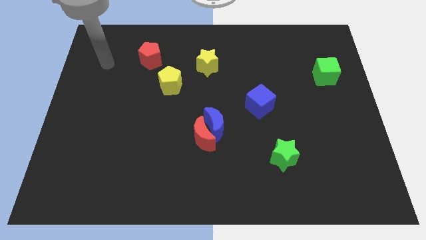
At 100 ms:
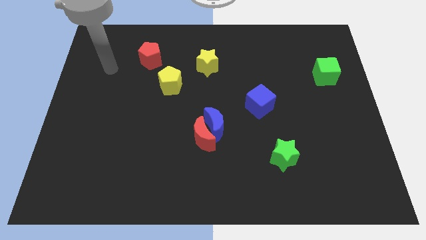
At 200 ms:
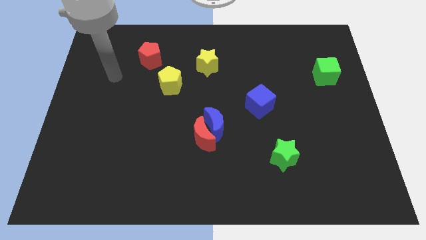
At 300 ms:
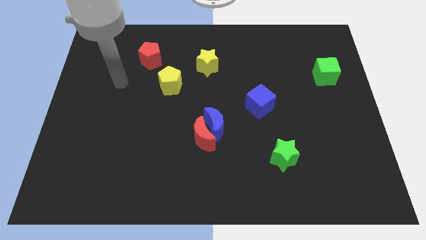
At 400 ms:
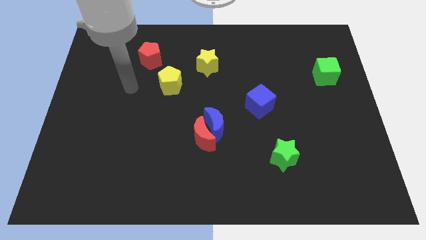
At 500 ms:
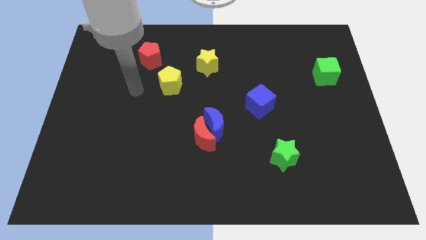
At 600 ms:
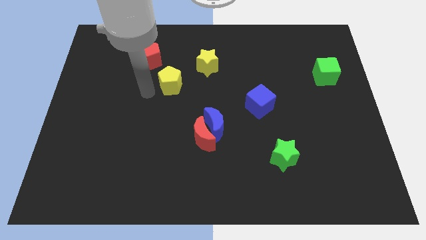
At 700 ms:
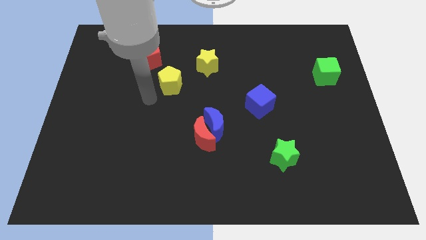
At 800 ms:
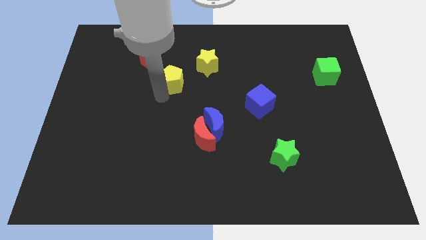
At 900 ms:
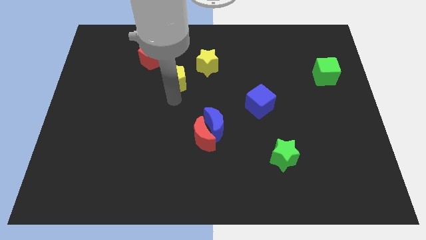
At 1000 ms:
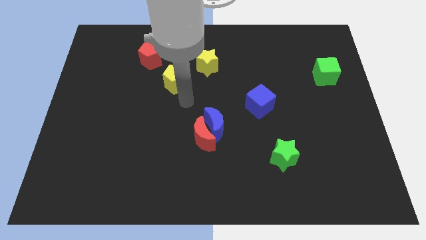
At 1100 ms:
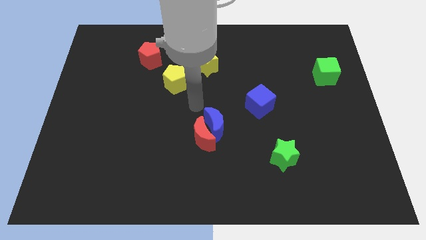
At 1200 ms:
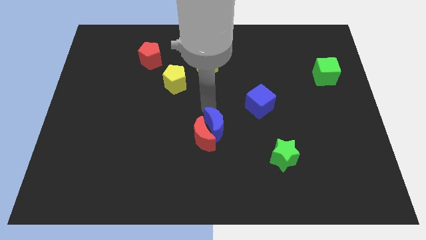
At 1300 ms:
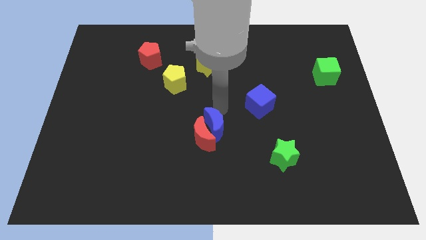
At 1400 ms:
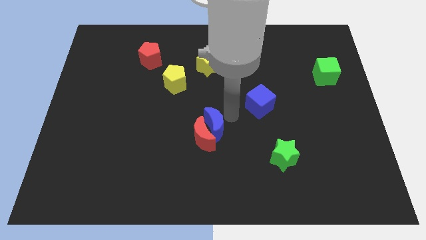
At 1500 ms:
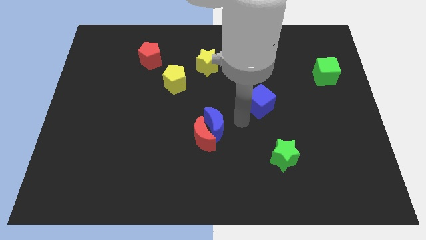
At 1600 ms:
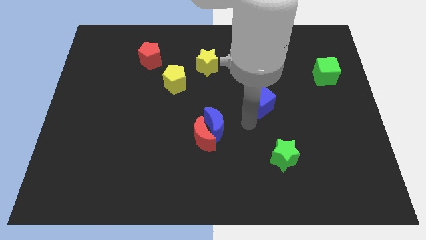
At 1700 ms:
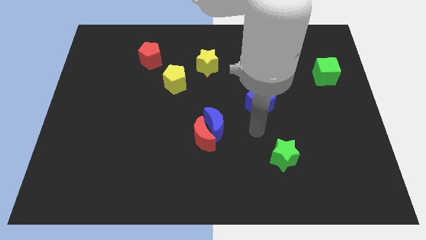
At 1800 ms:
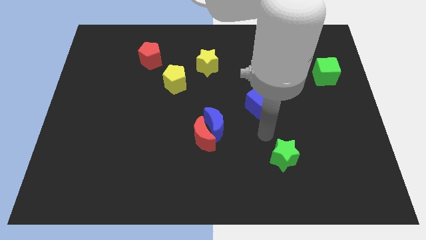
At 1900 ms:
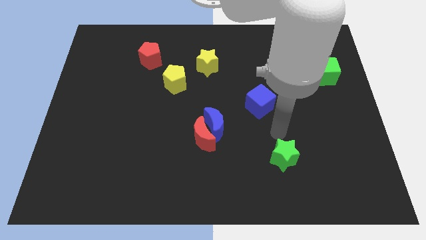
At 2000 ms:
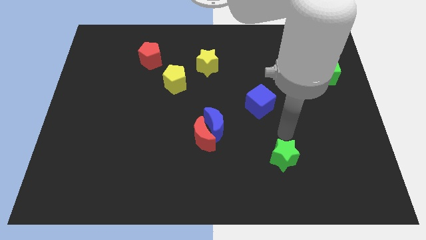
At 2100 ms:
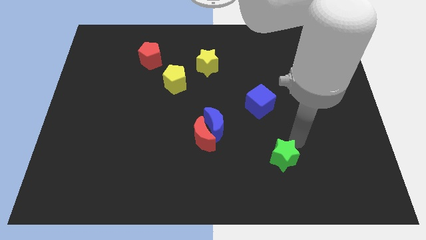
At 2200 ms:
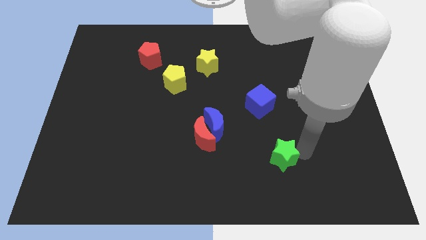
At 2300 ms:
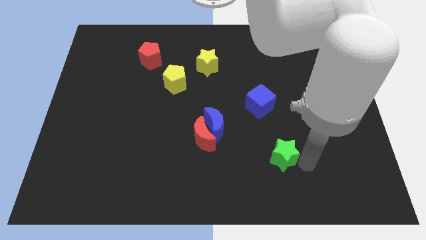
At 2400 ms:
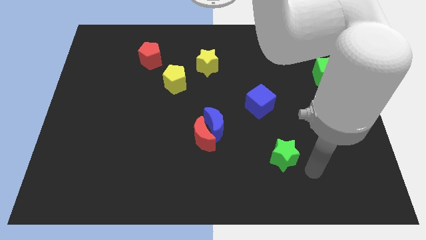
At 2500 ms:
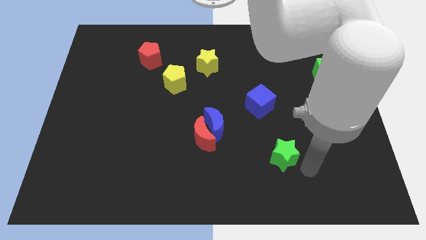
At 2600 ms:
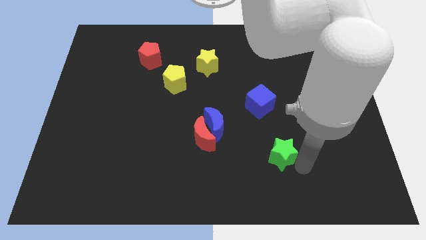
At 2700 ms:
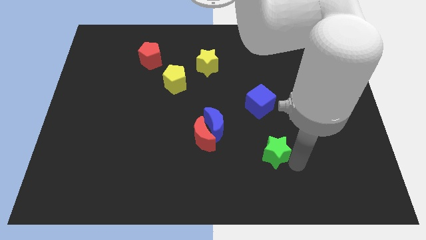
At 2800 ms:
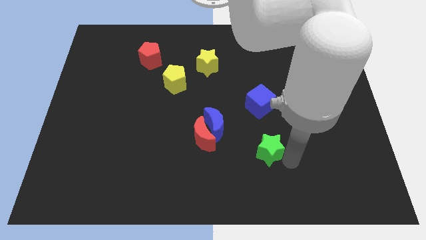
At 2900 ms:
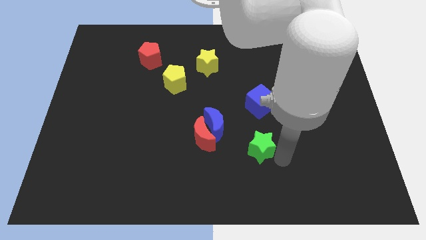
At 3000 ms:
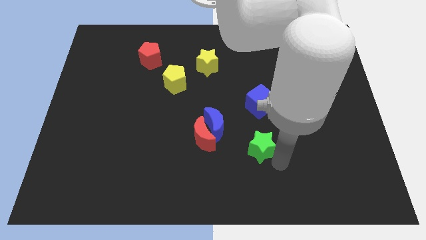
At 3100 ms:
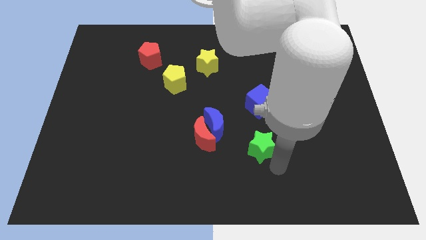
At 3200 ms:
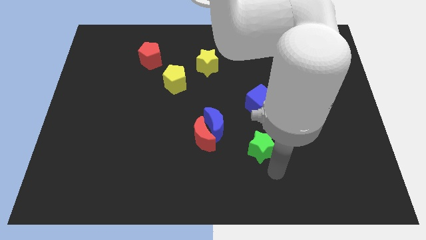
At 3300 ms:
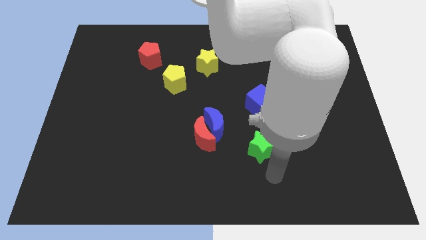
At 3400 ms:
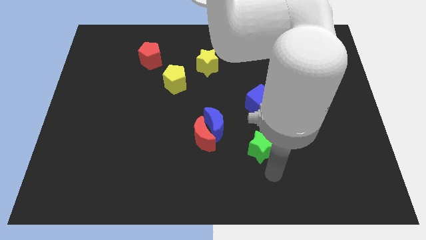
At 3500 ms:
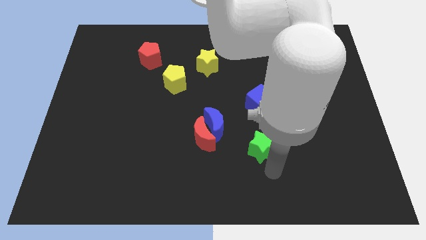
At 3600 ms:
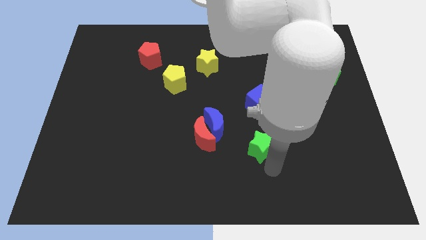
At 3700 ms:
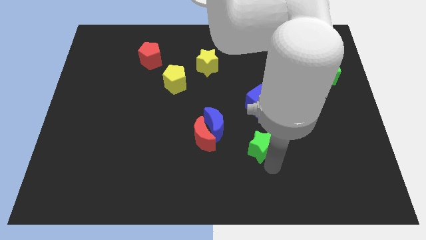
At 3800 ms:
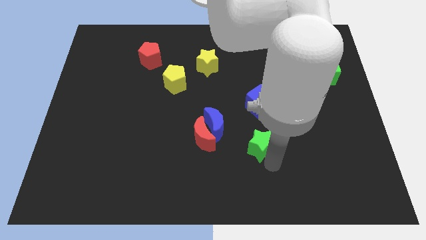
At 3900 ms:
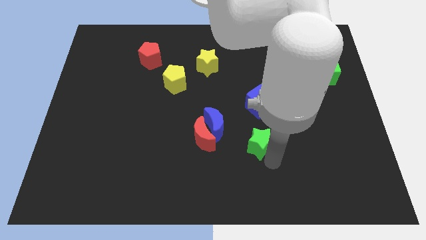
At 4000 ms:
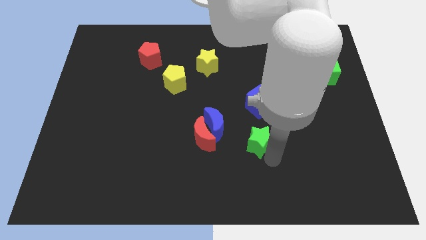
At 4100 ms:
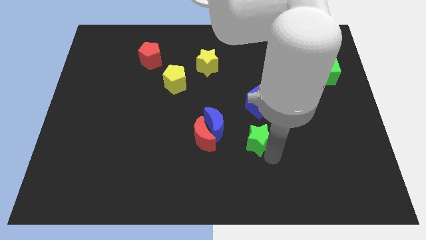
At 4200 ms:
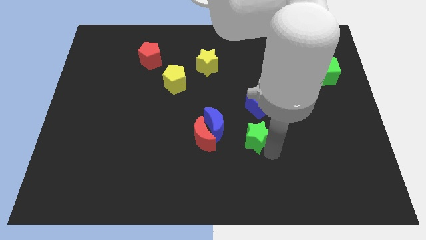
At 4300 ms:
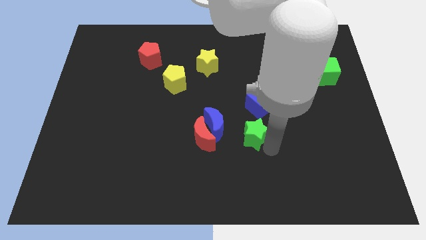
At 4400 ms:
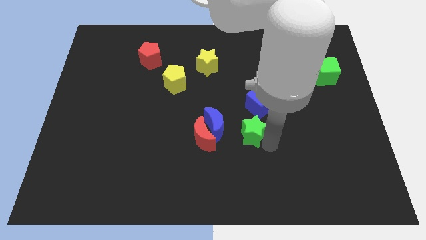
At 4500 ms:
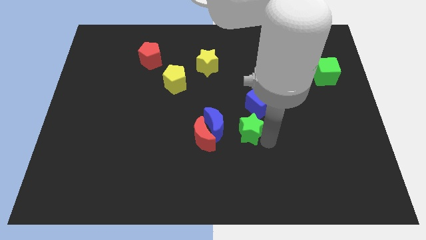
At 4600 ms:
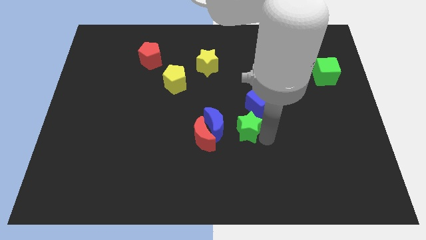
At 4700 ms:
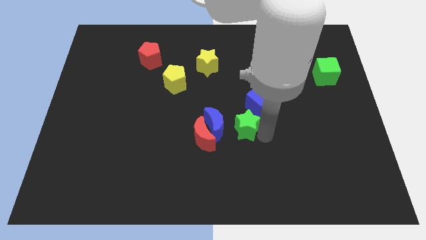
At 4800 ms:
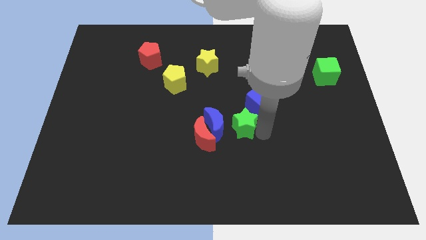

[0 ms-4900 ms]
push the green star diagonally up and to the right of the blue moon

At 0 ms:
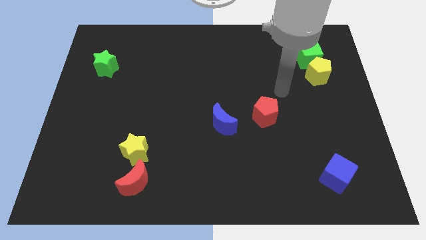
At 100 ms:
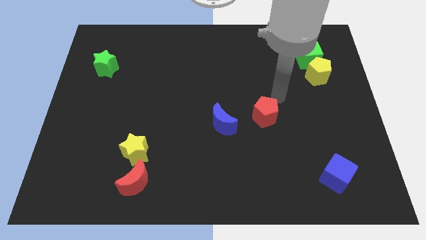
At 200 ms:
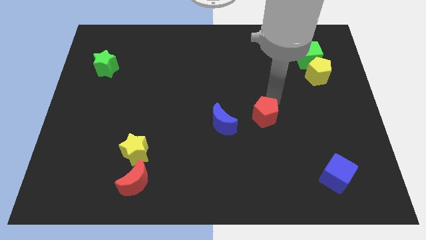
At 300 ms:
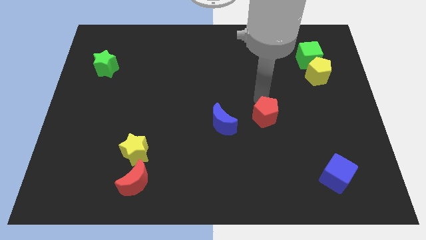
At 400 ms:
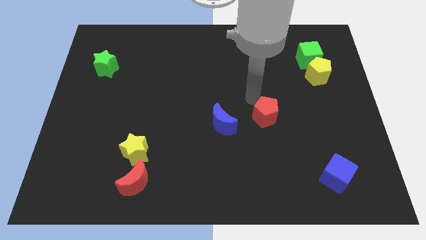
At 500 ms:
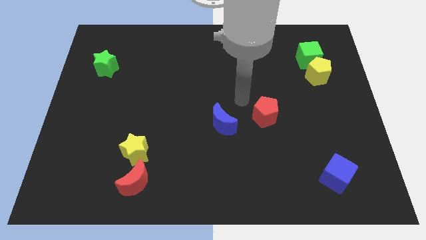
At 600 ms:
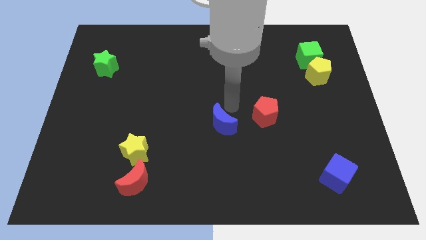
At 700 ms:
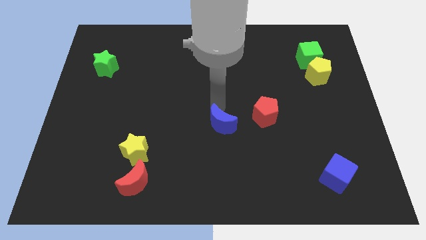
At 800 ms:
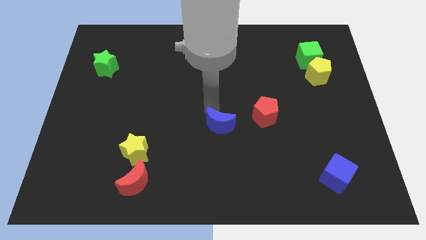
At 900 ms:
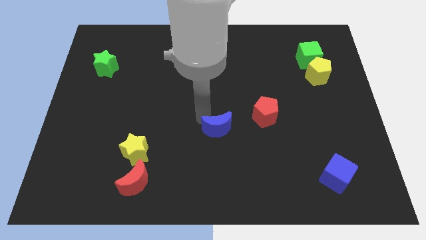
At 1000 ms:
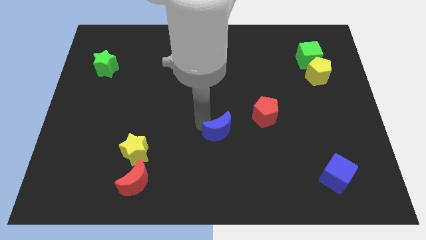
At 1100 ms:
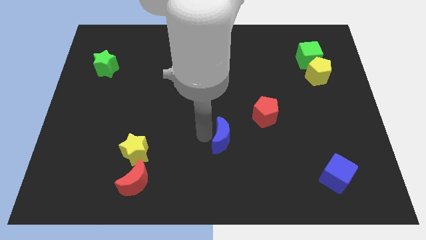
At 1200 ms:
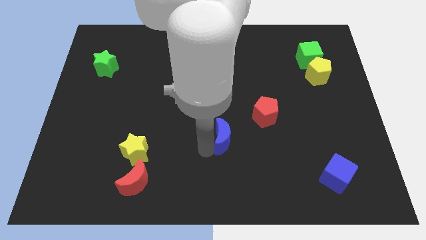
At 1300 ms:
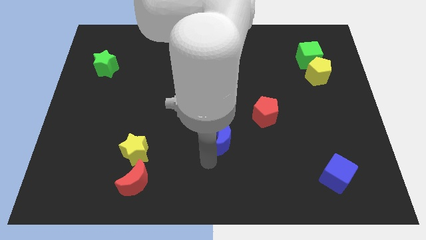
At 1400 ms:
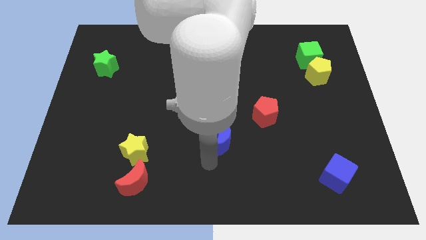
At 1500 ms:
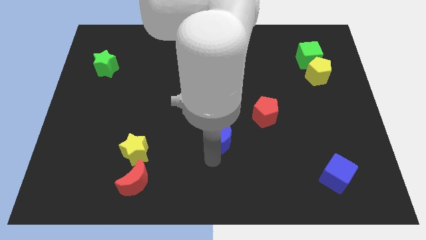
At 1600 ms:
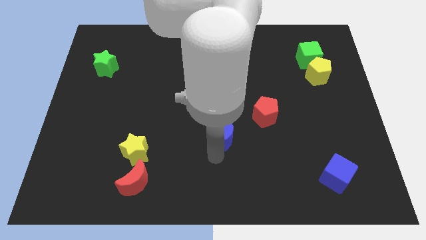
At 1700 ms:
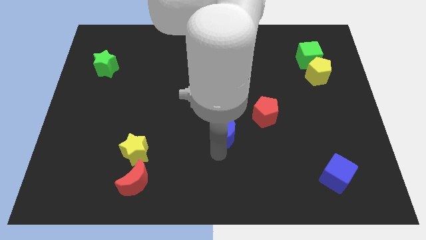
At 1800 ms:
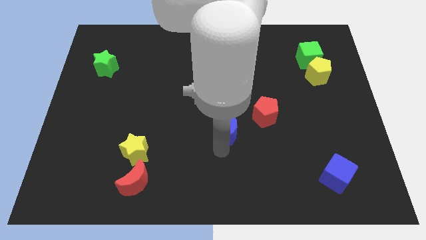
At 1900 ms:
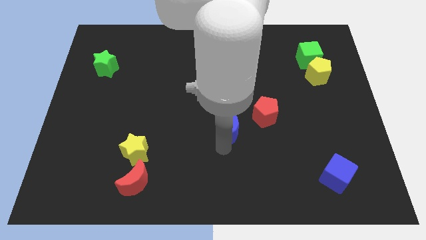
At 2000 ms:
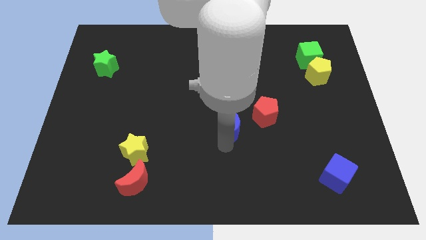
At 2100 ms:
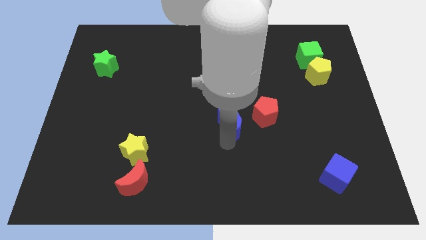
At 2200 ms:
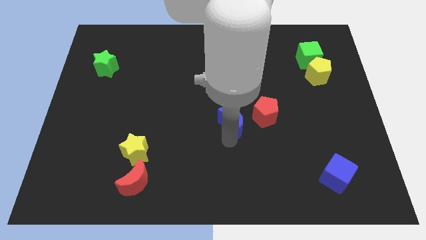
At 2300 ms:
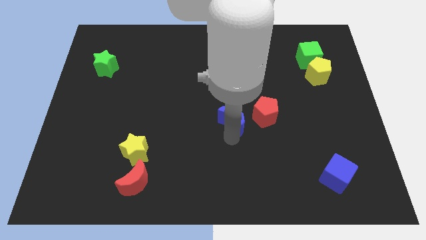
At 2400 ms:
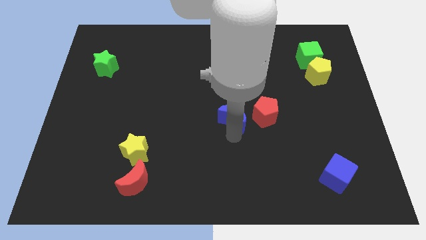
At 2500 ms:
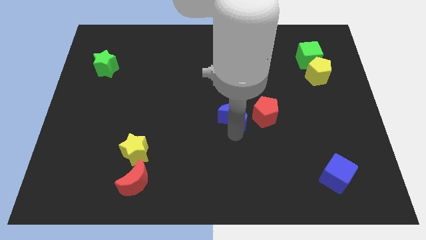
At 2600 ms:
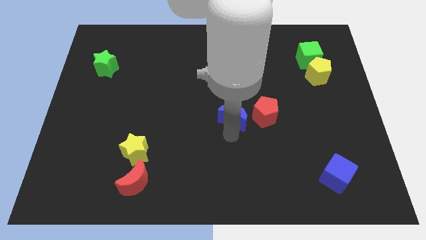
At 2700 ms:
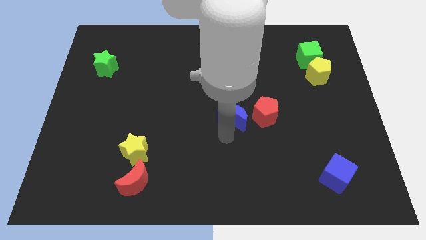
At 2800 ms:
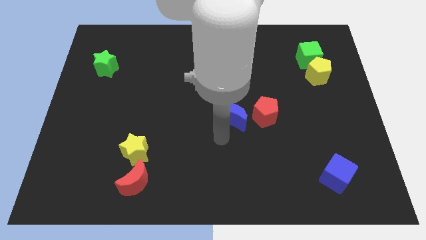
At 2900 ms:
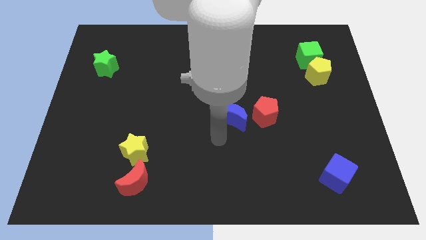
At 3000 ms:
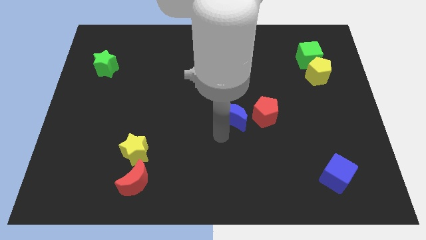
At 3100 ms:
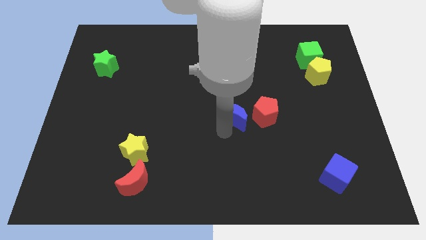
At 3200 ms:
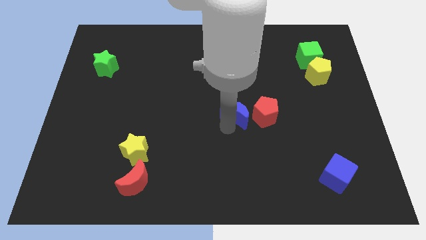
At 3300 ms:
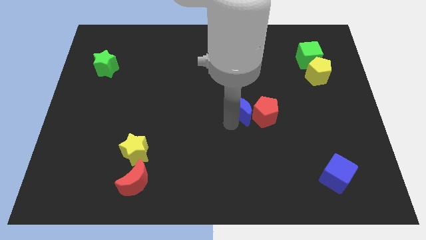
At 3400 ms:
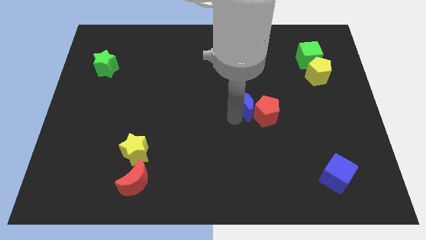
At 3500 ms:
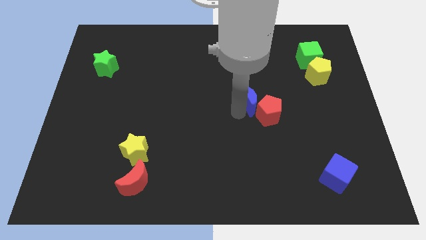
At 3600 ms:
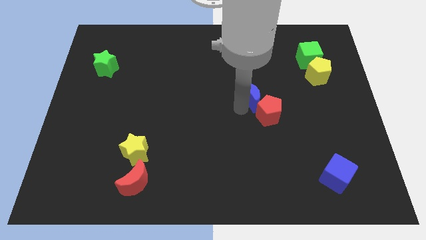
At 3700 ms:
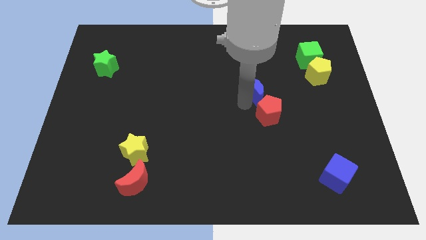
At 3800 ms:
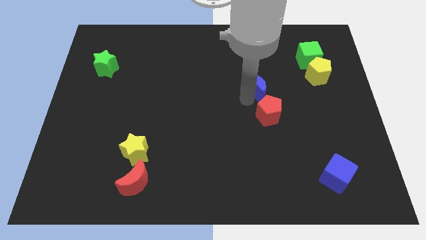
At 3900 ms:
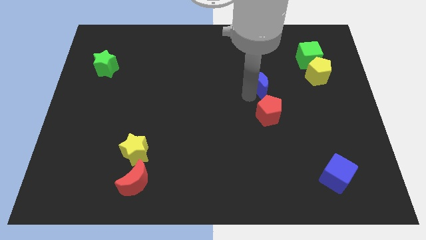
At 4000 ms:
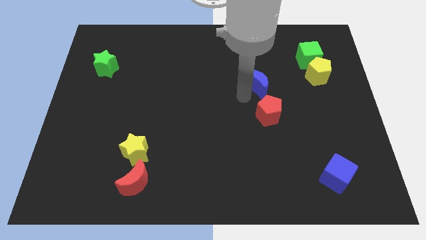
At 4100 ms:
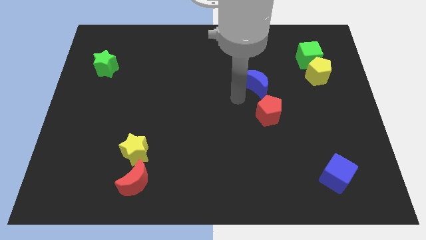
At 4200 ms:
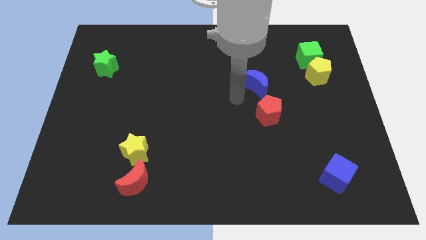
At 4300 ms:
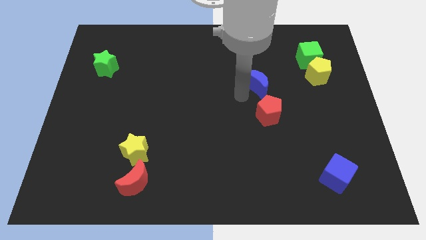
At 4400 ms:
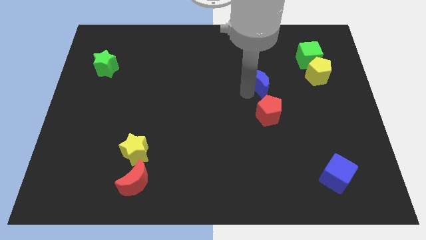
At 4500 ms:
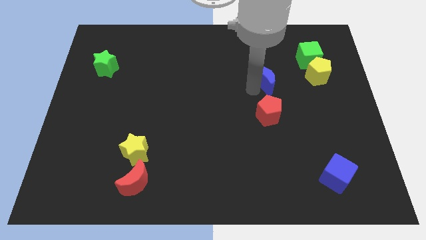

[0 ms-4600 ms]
move the blue moon to the left of the yellow pentagon
